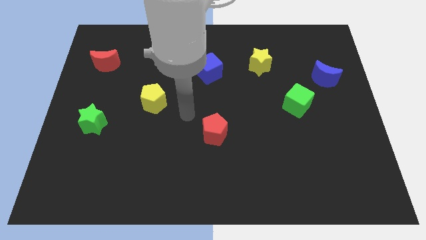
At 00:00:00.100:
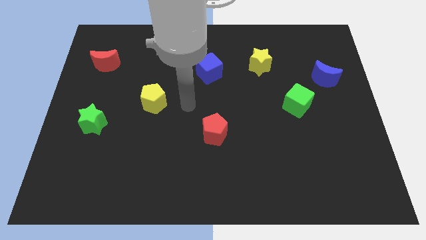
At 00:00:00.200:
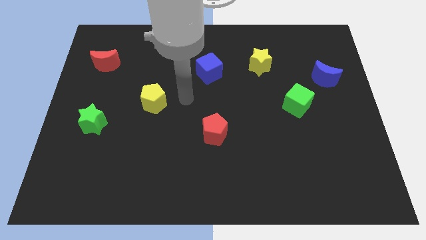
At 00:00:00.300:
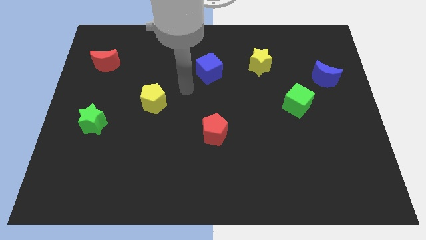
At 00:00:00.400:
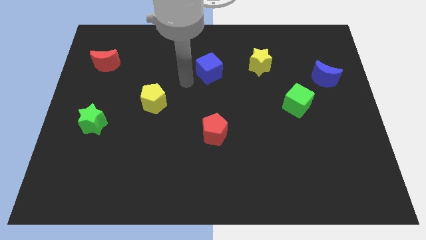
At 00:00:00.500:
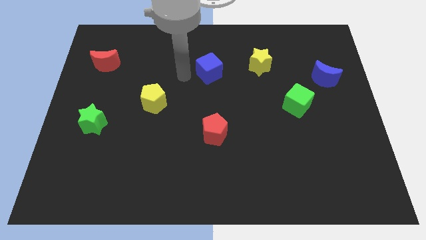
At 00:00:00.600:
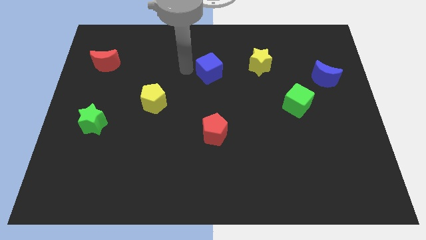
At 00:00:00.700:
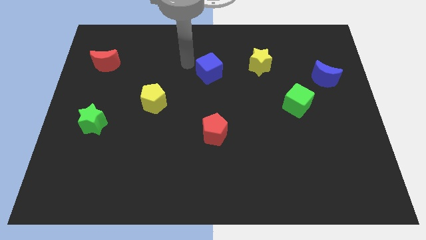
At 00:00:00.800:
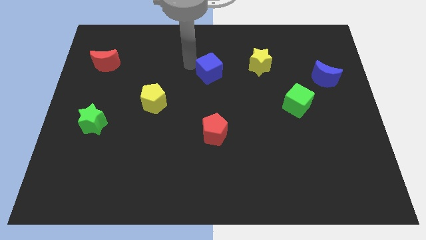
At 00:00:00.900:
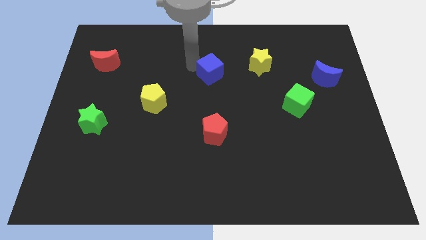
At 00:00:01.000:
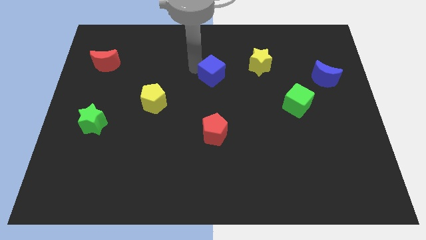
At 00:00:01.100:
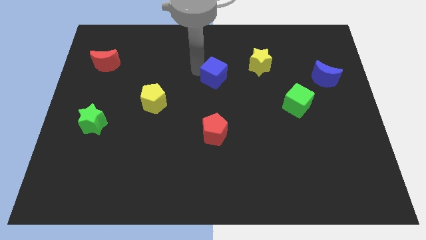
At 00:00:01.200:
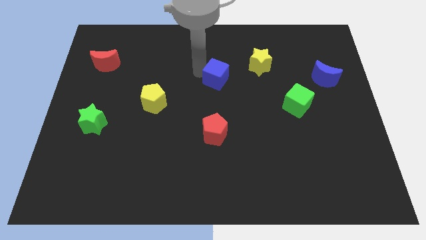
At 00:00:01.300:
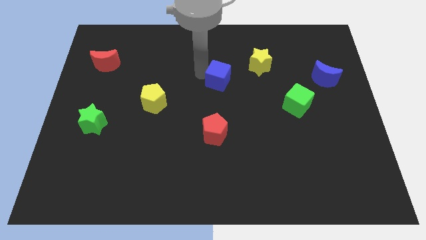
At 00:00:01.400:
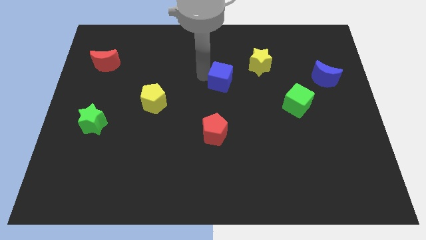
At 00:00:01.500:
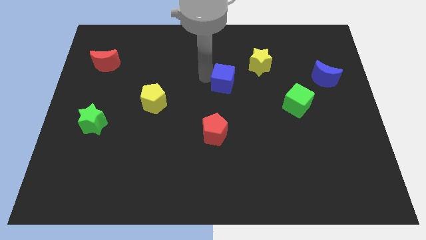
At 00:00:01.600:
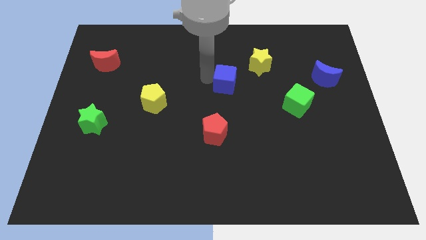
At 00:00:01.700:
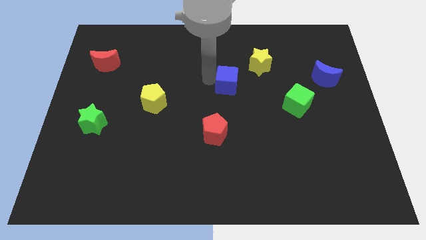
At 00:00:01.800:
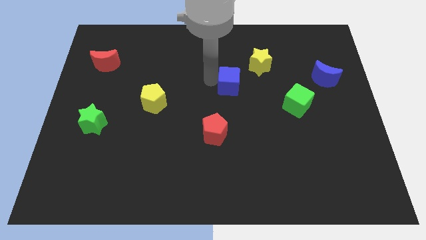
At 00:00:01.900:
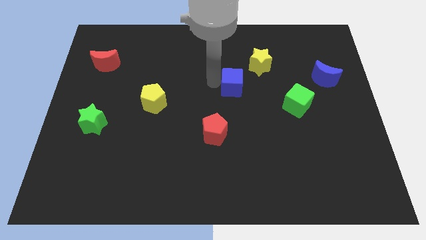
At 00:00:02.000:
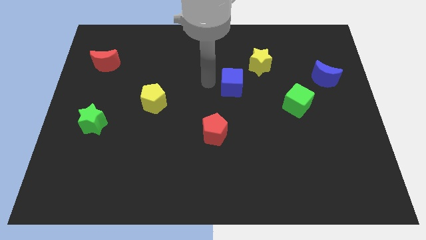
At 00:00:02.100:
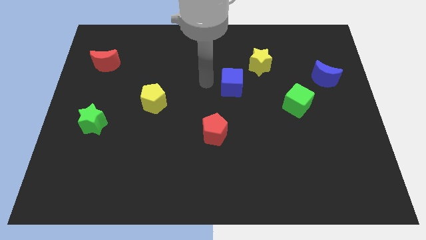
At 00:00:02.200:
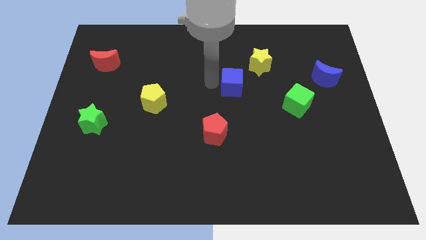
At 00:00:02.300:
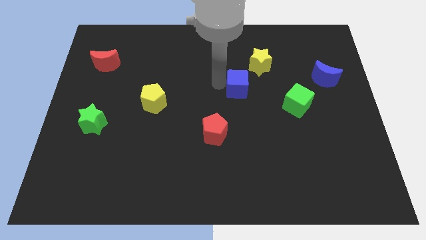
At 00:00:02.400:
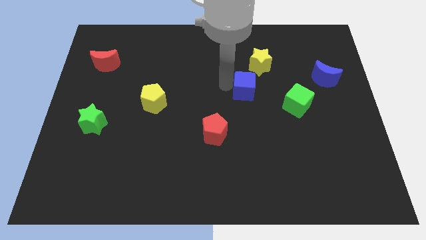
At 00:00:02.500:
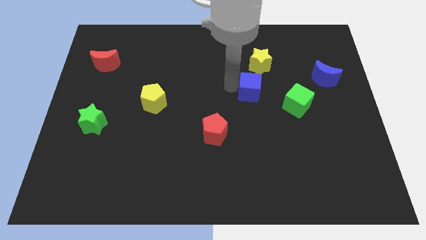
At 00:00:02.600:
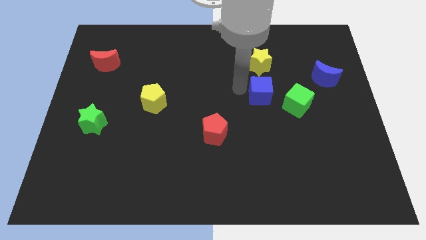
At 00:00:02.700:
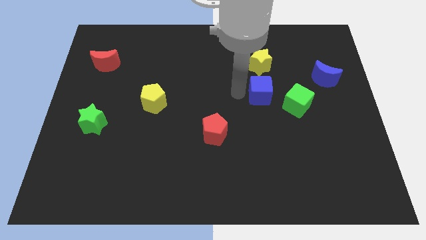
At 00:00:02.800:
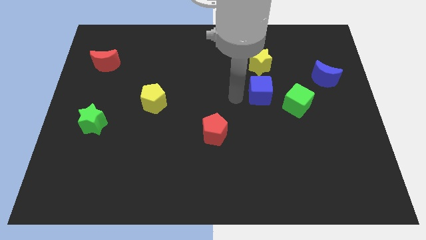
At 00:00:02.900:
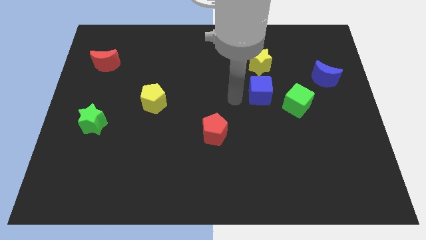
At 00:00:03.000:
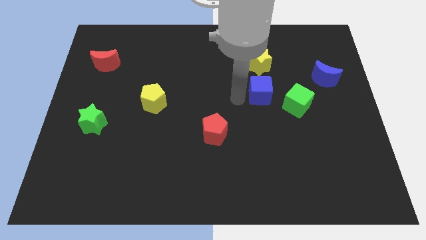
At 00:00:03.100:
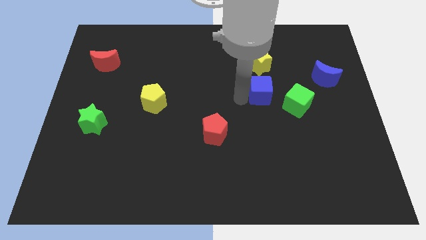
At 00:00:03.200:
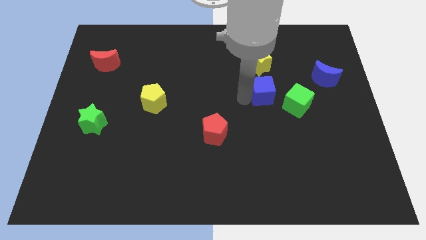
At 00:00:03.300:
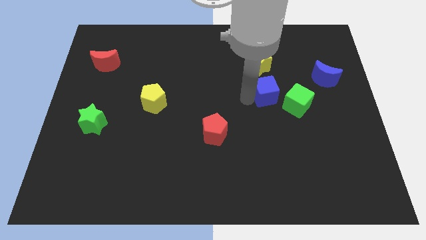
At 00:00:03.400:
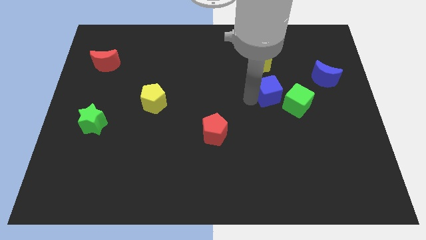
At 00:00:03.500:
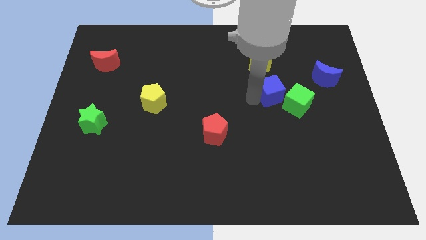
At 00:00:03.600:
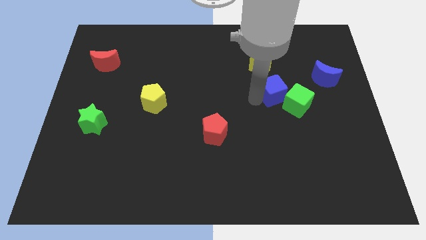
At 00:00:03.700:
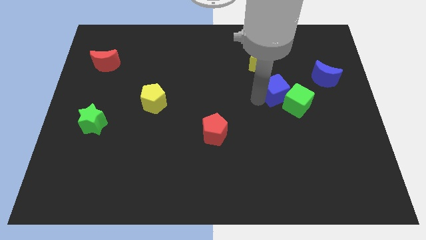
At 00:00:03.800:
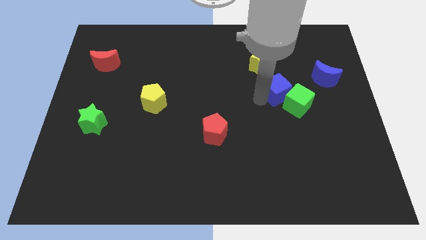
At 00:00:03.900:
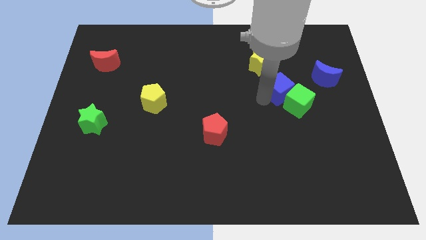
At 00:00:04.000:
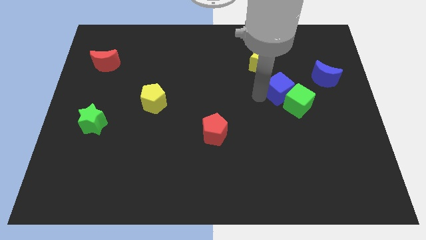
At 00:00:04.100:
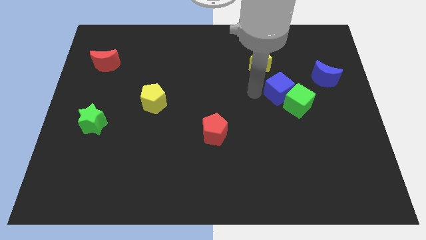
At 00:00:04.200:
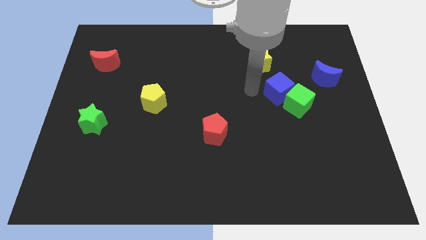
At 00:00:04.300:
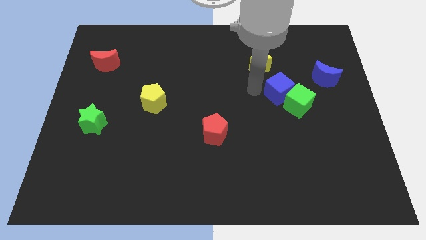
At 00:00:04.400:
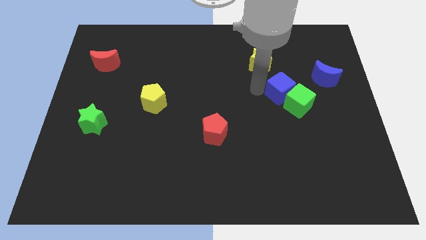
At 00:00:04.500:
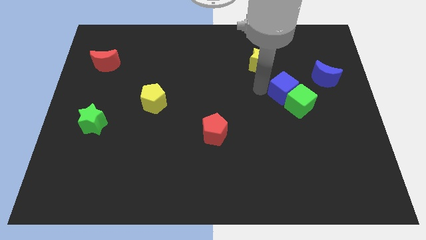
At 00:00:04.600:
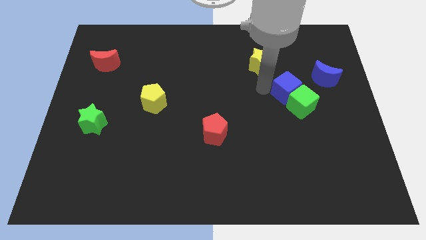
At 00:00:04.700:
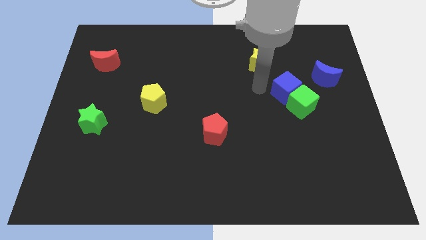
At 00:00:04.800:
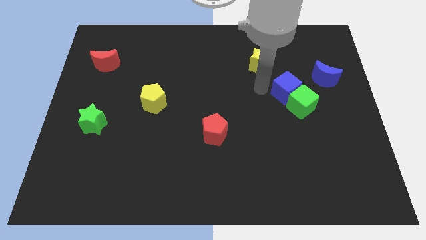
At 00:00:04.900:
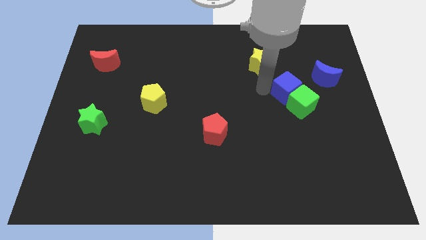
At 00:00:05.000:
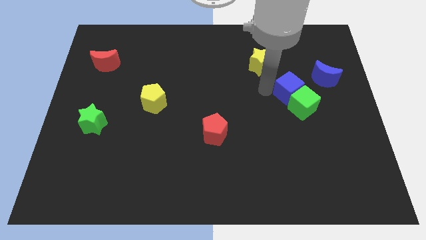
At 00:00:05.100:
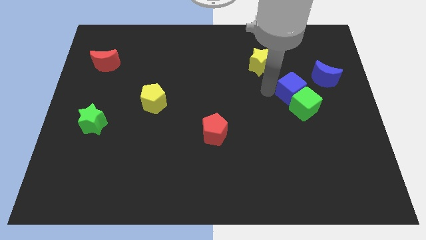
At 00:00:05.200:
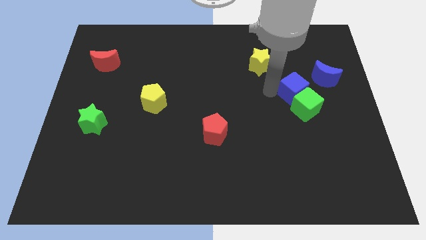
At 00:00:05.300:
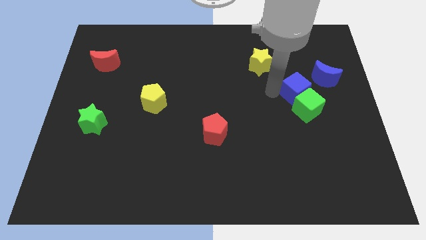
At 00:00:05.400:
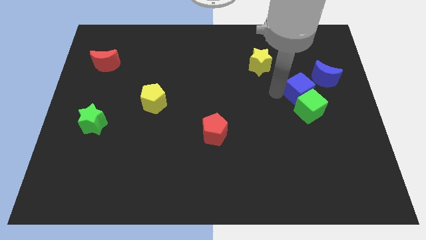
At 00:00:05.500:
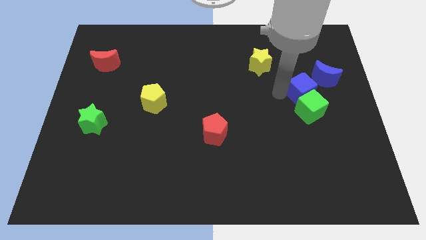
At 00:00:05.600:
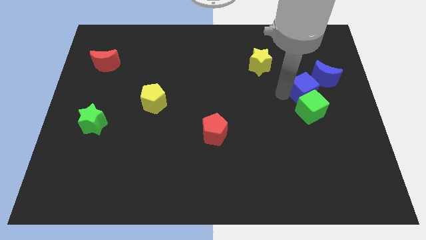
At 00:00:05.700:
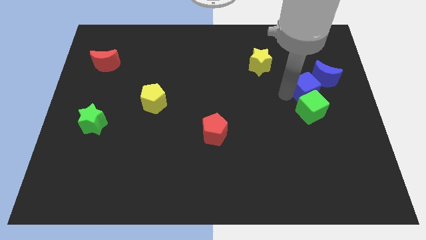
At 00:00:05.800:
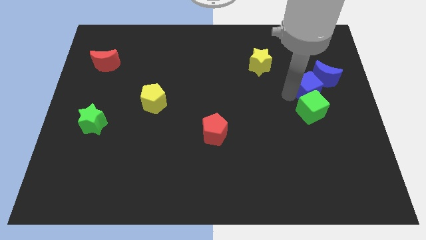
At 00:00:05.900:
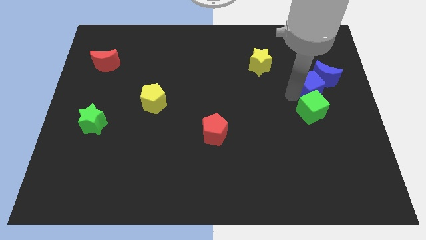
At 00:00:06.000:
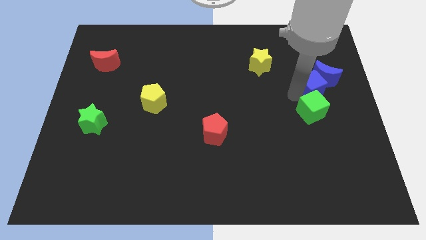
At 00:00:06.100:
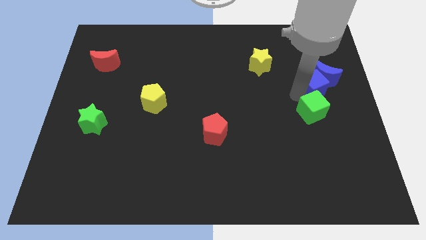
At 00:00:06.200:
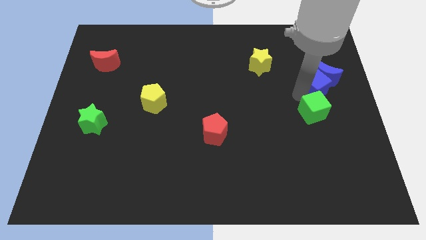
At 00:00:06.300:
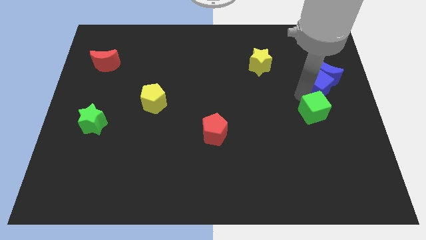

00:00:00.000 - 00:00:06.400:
put the blue cube to the right side of the board

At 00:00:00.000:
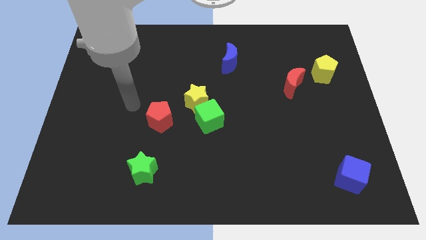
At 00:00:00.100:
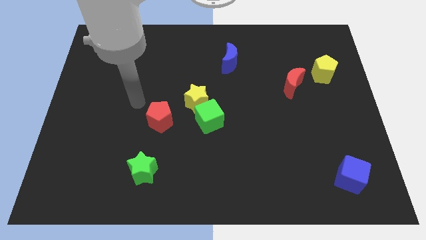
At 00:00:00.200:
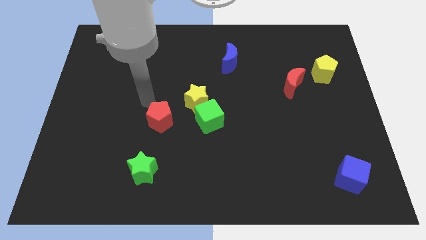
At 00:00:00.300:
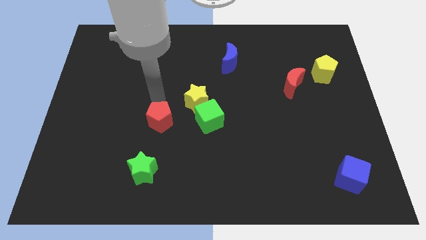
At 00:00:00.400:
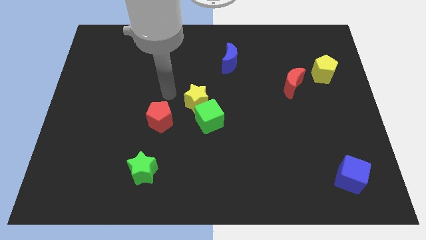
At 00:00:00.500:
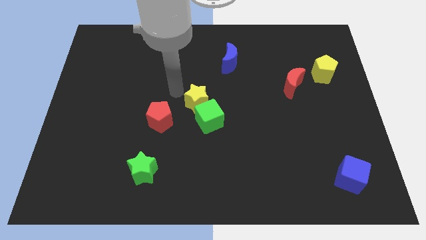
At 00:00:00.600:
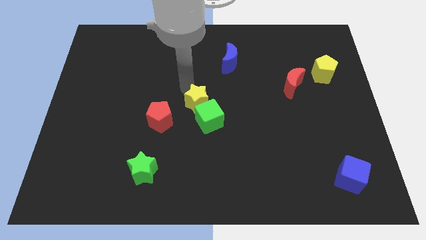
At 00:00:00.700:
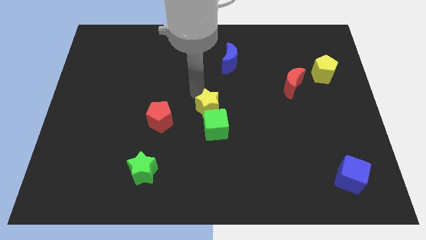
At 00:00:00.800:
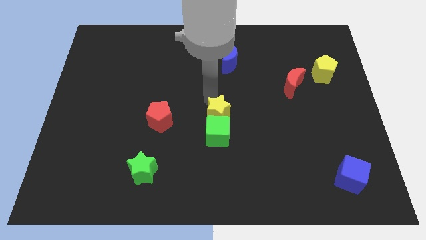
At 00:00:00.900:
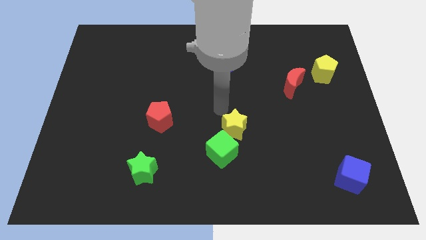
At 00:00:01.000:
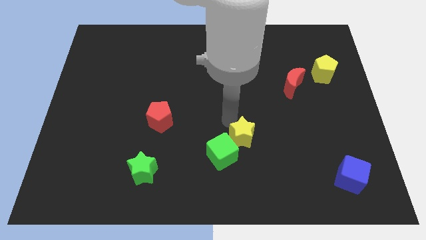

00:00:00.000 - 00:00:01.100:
put the green cube to the bottom
